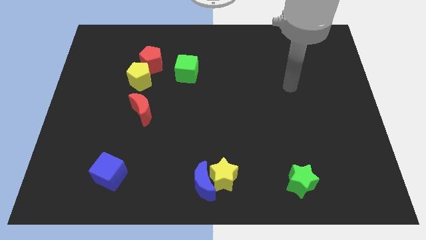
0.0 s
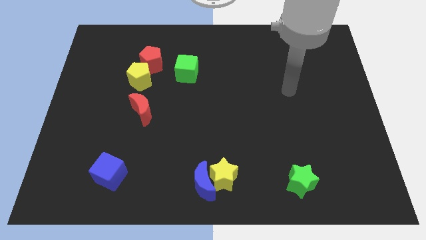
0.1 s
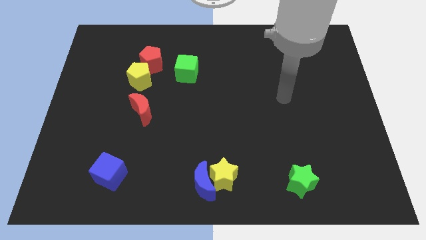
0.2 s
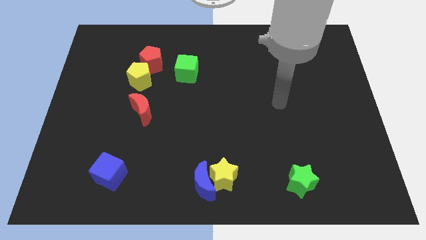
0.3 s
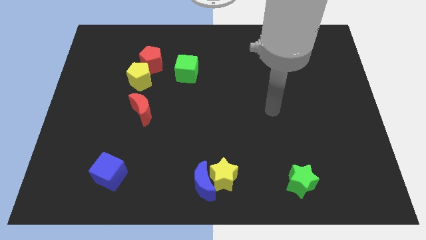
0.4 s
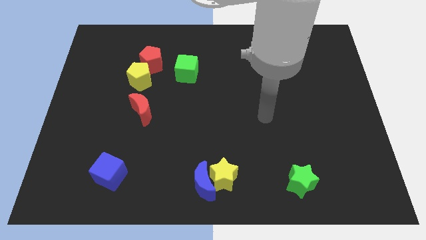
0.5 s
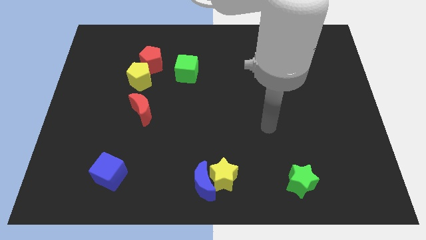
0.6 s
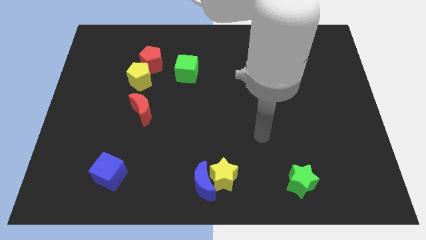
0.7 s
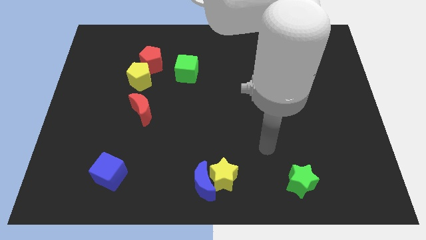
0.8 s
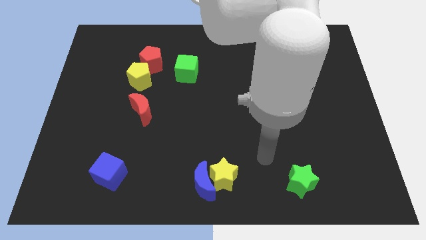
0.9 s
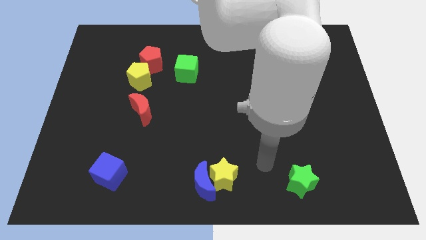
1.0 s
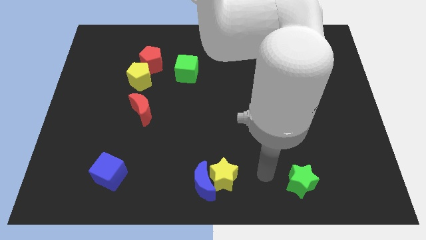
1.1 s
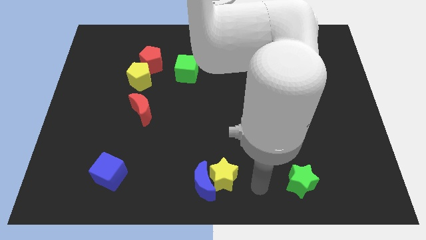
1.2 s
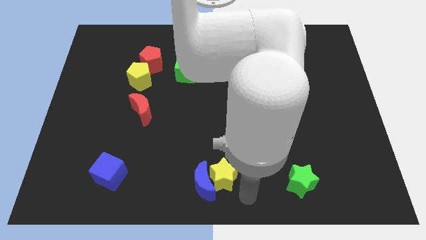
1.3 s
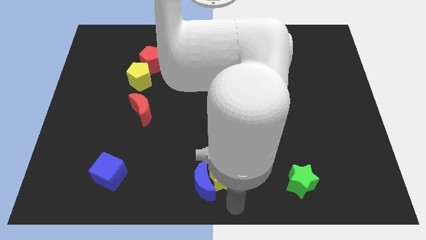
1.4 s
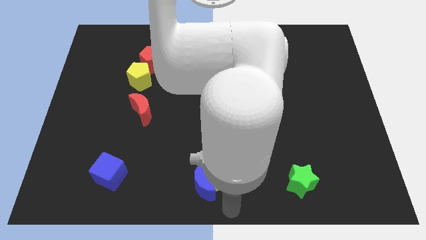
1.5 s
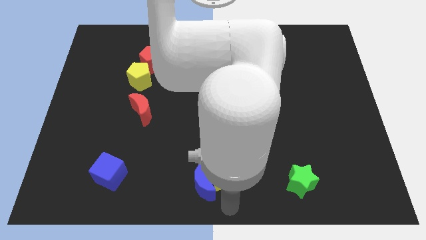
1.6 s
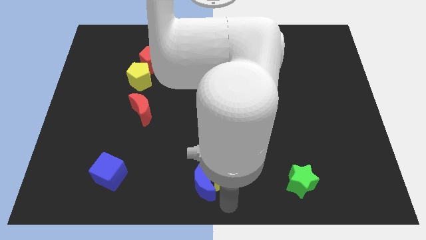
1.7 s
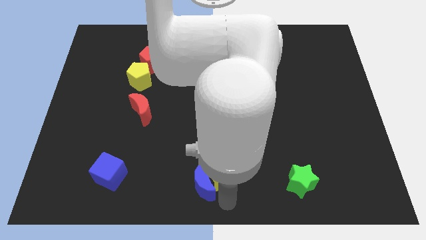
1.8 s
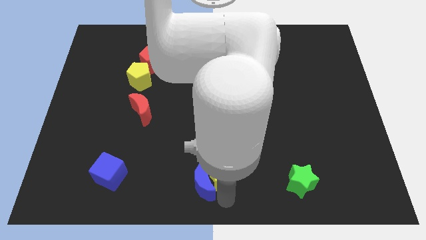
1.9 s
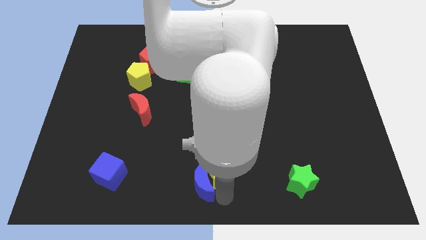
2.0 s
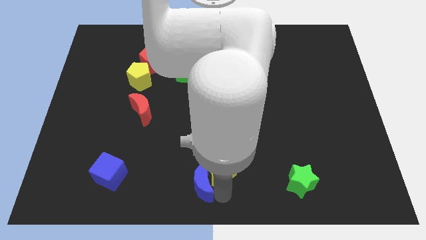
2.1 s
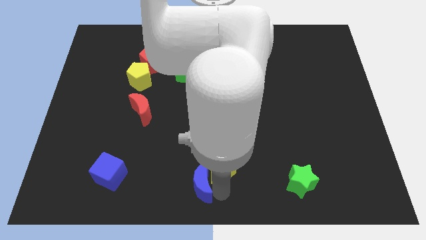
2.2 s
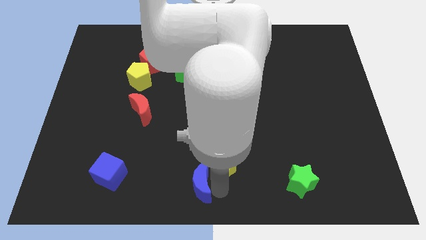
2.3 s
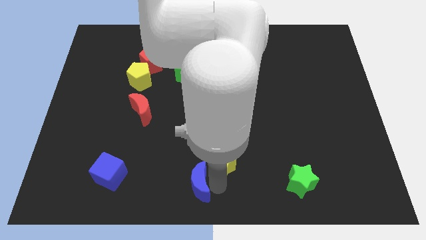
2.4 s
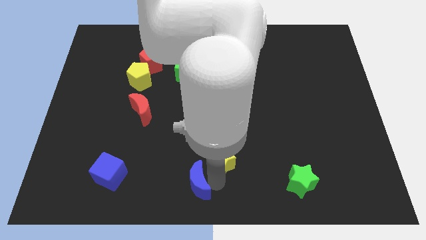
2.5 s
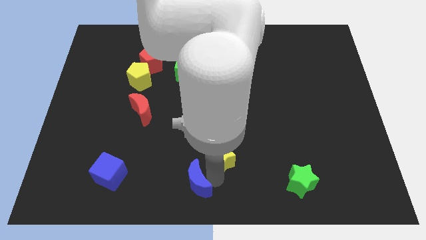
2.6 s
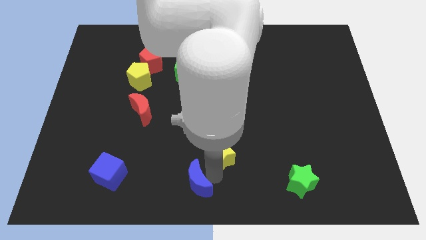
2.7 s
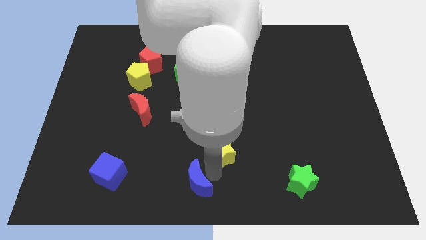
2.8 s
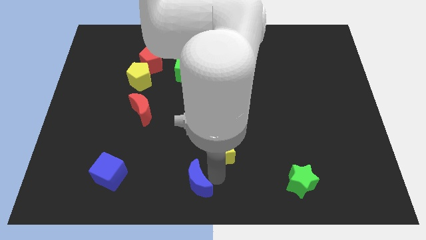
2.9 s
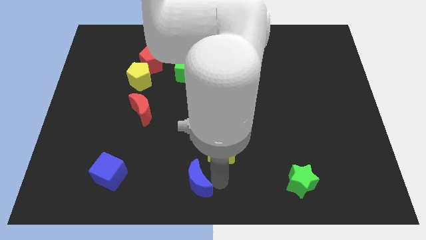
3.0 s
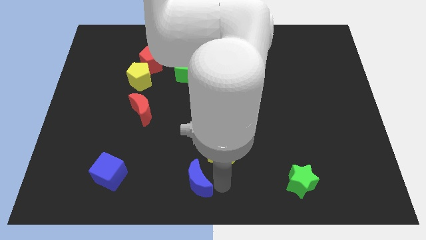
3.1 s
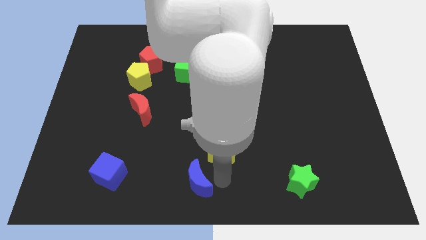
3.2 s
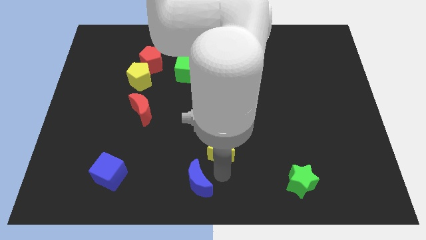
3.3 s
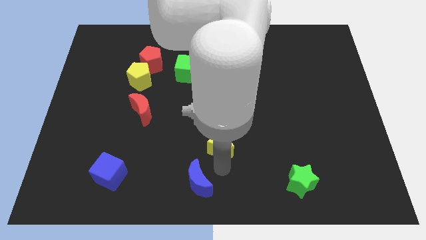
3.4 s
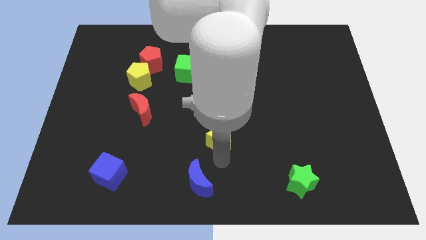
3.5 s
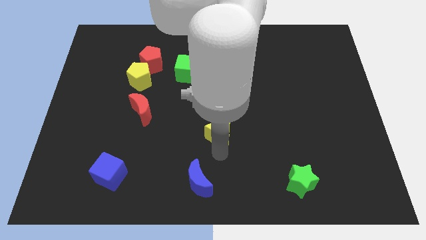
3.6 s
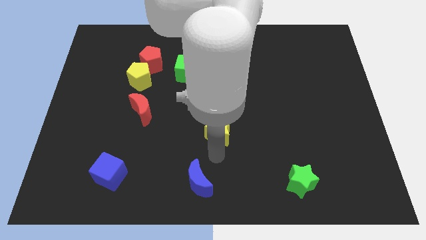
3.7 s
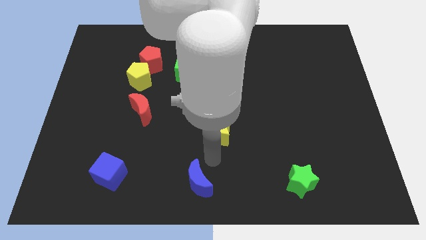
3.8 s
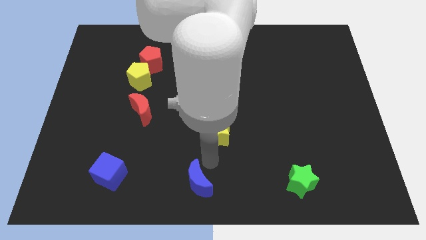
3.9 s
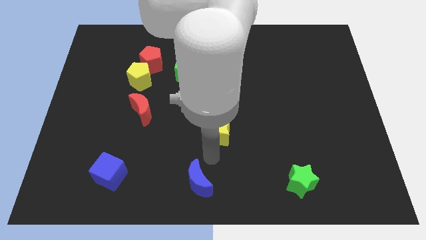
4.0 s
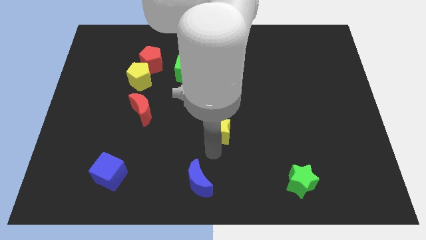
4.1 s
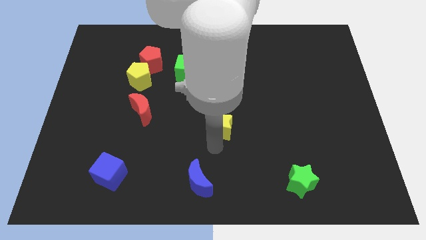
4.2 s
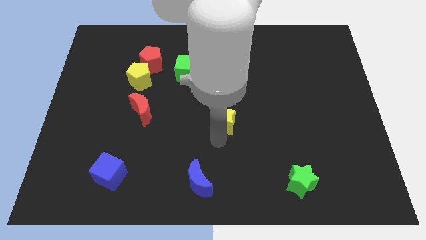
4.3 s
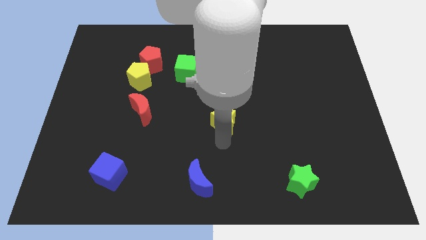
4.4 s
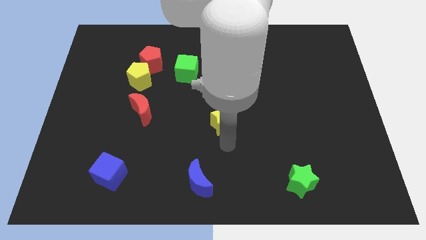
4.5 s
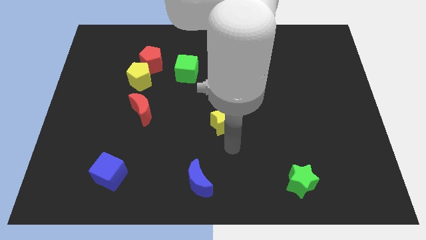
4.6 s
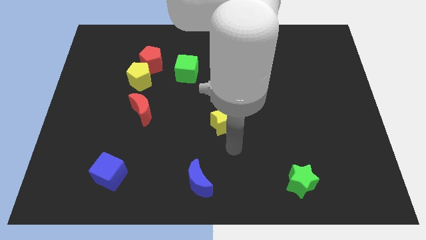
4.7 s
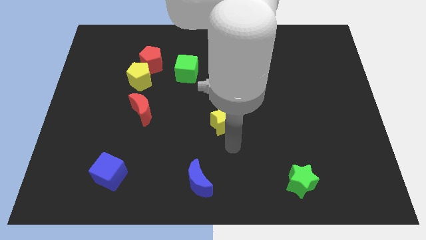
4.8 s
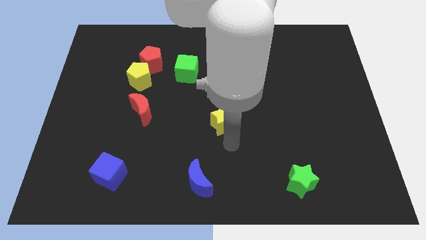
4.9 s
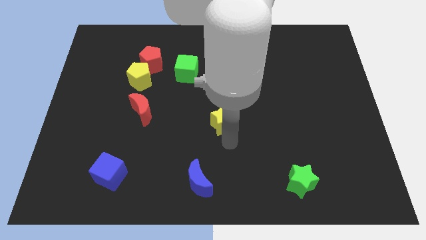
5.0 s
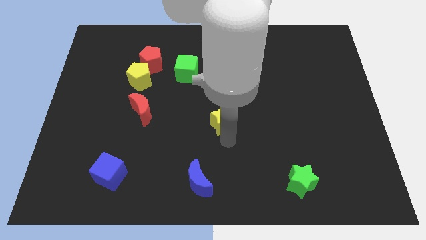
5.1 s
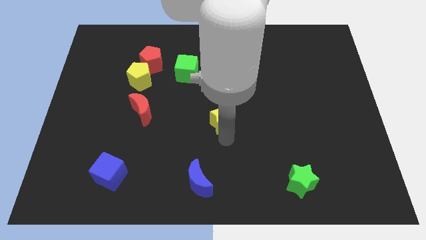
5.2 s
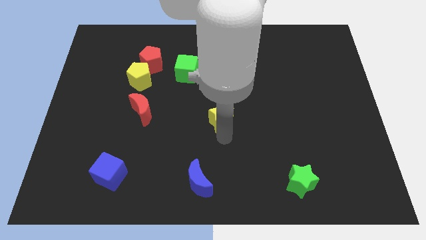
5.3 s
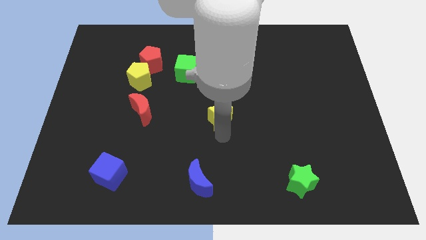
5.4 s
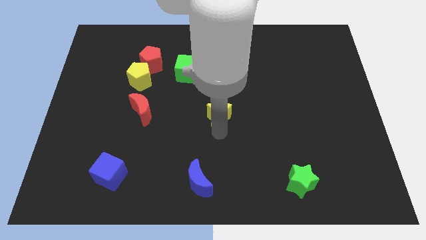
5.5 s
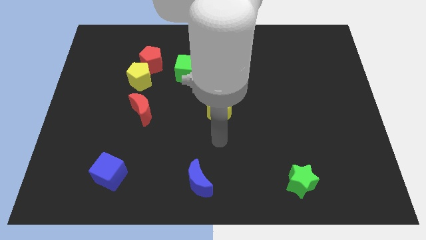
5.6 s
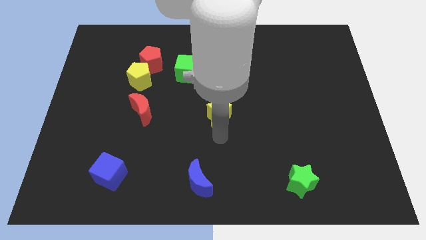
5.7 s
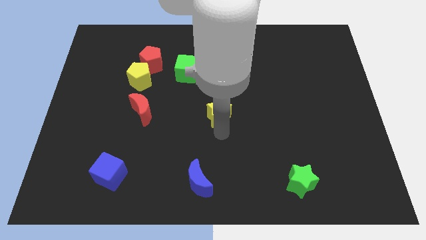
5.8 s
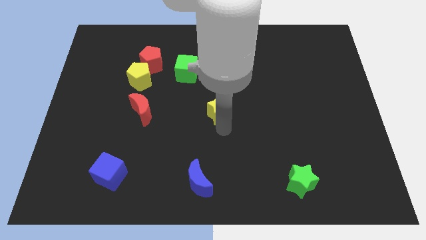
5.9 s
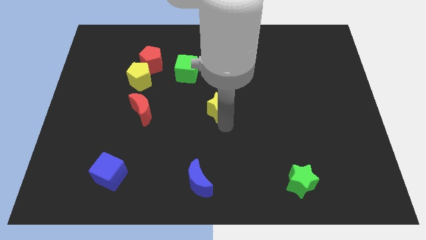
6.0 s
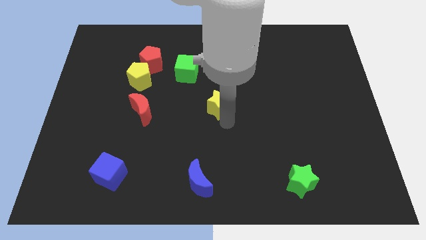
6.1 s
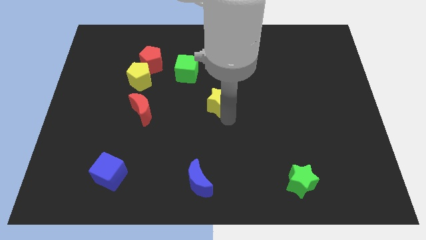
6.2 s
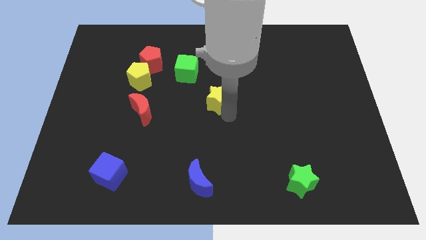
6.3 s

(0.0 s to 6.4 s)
move the yellow star up

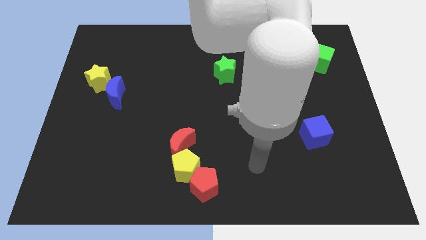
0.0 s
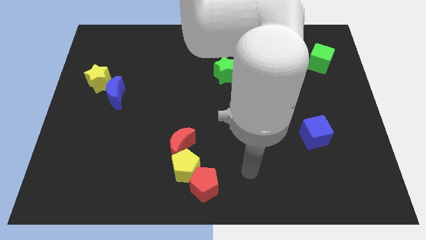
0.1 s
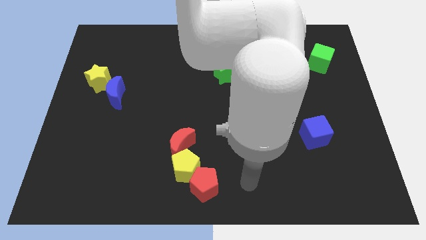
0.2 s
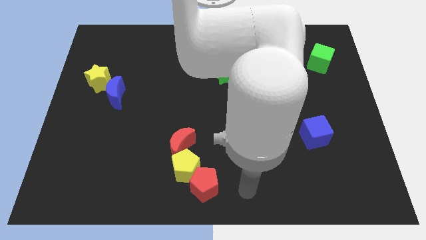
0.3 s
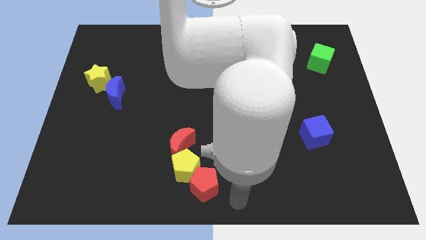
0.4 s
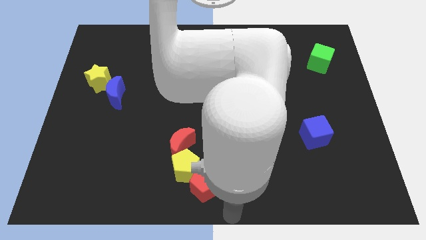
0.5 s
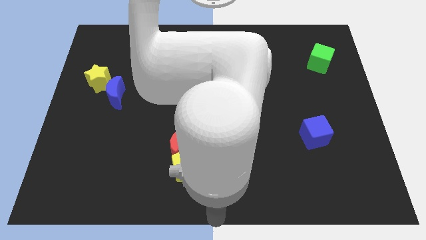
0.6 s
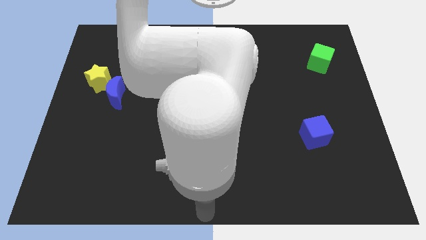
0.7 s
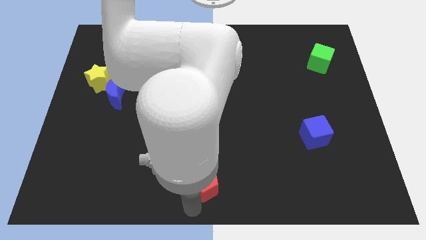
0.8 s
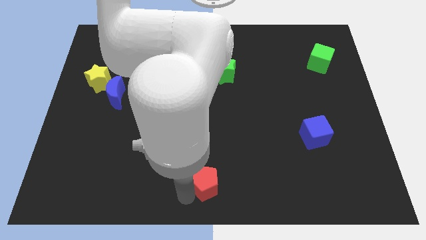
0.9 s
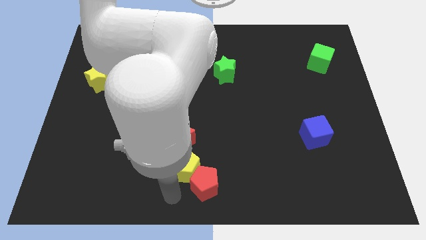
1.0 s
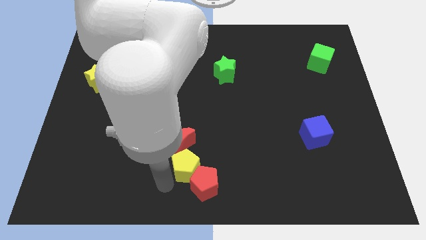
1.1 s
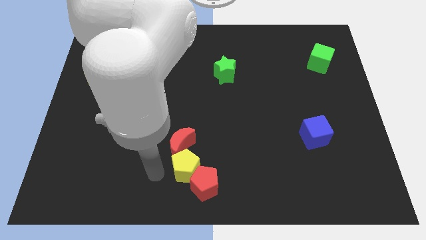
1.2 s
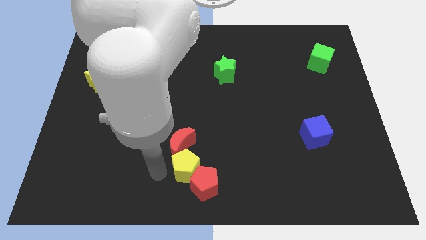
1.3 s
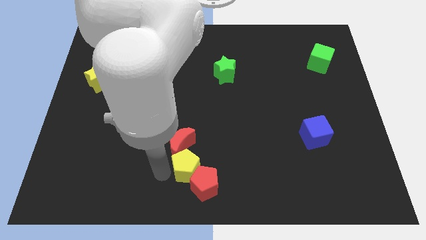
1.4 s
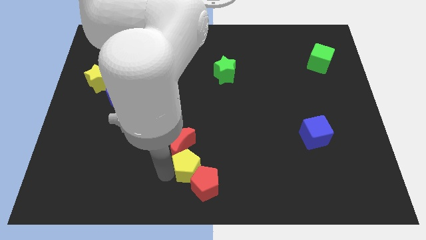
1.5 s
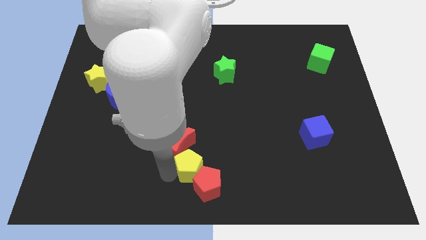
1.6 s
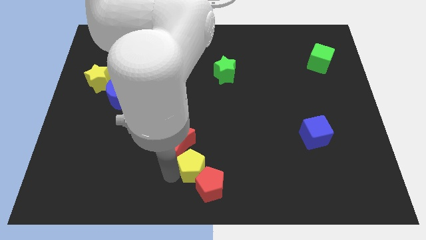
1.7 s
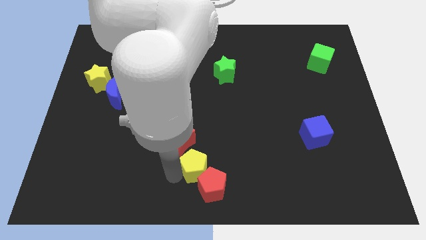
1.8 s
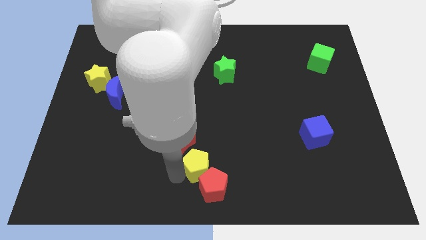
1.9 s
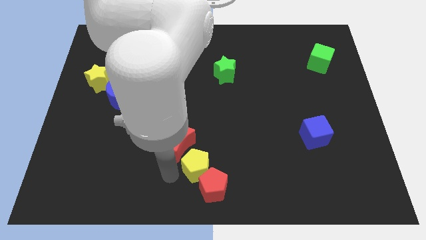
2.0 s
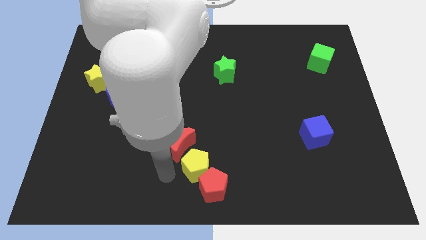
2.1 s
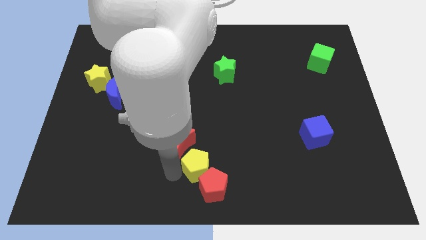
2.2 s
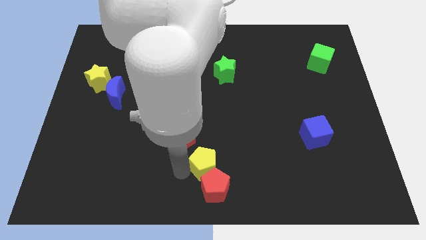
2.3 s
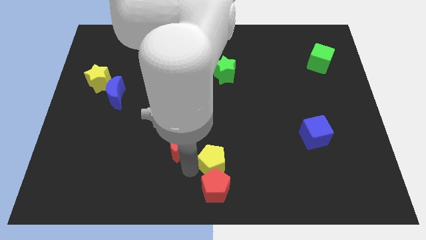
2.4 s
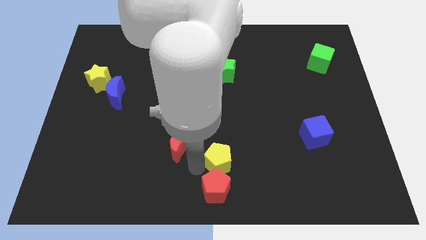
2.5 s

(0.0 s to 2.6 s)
slide the yellow pentagon right a bit
